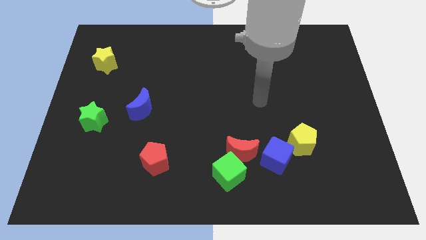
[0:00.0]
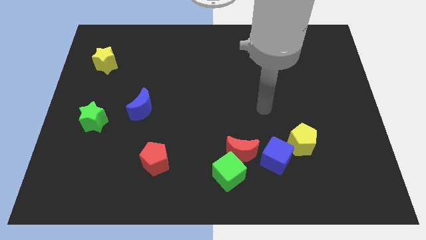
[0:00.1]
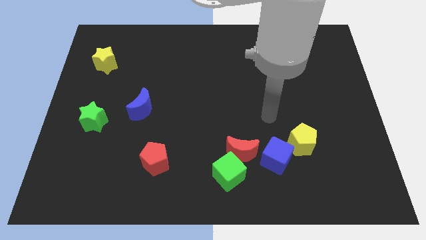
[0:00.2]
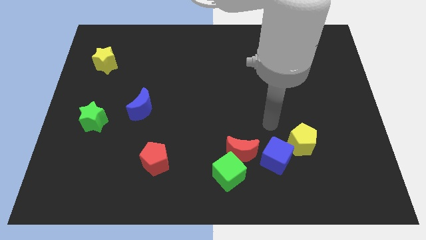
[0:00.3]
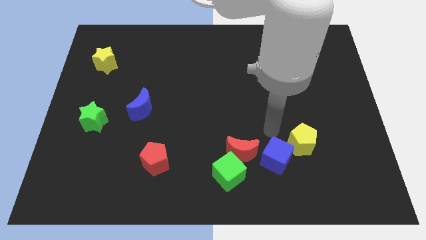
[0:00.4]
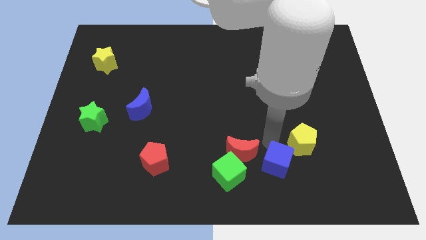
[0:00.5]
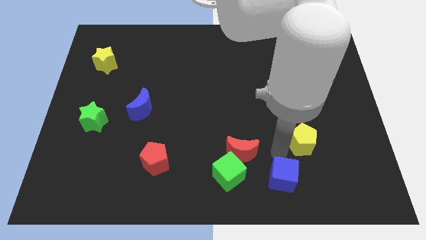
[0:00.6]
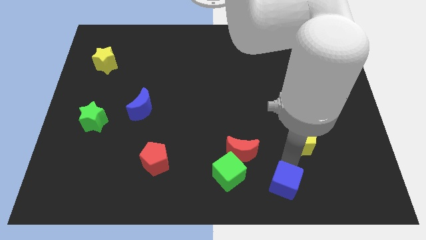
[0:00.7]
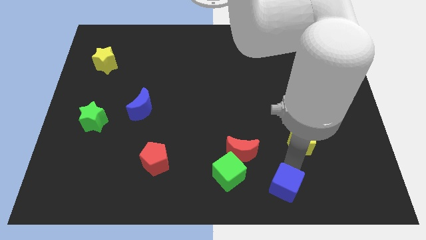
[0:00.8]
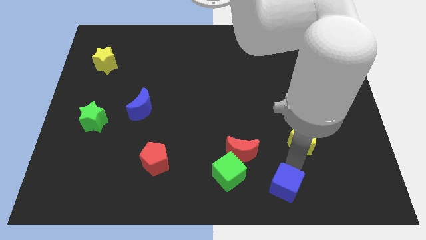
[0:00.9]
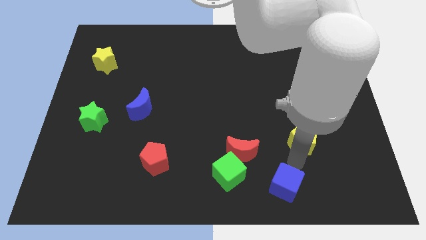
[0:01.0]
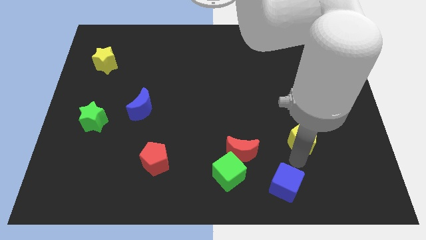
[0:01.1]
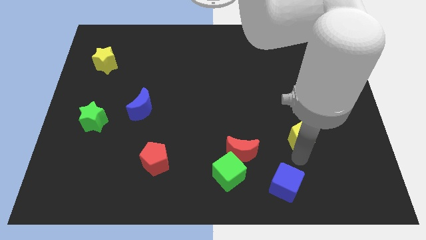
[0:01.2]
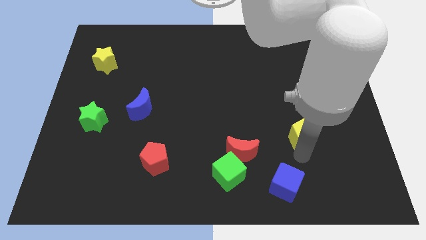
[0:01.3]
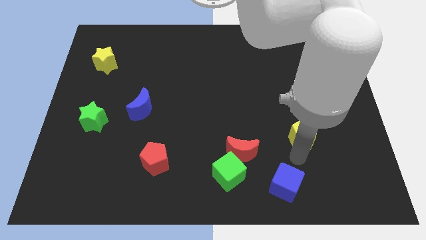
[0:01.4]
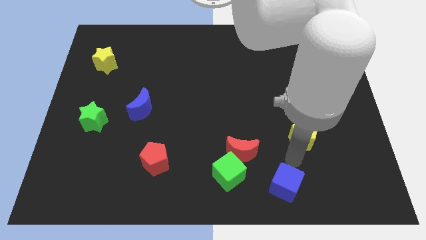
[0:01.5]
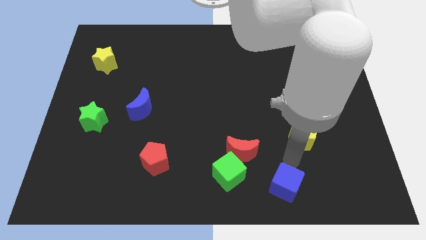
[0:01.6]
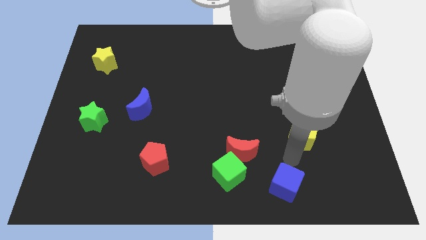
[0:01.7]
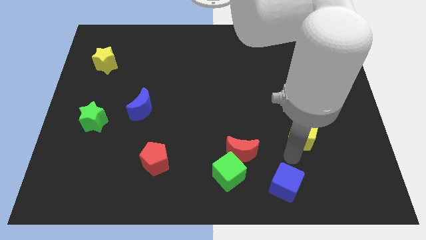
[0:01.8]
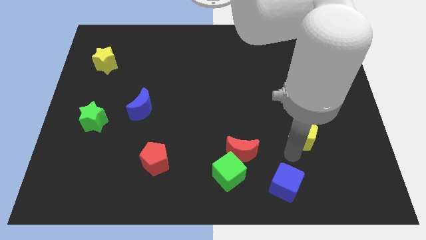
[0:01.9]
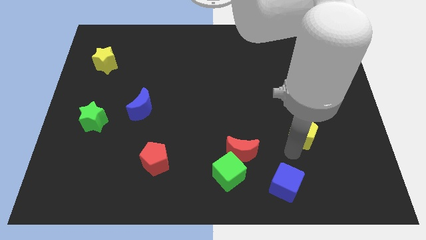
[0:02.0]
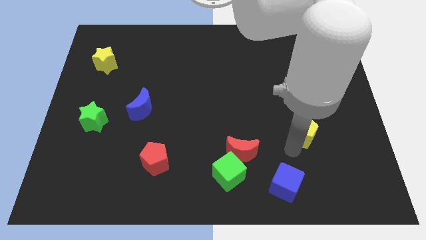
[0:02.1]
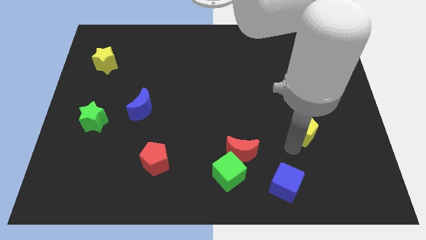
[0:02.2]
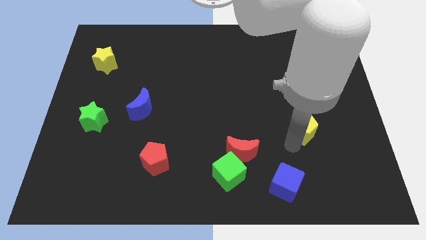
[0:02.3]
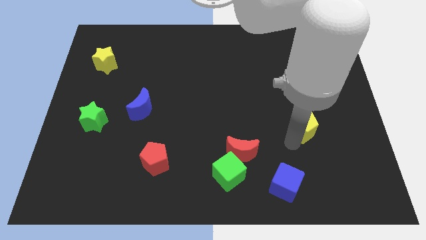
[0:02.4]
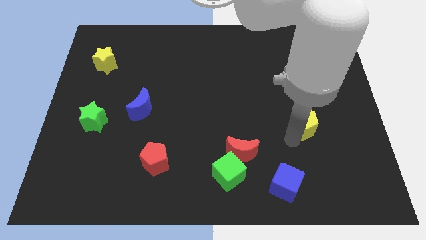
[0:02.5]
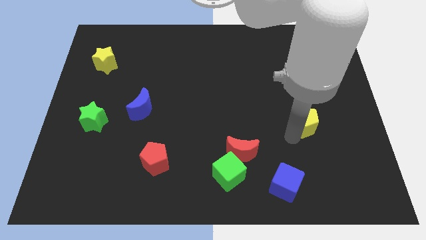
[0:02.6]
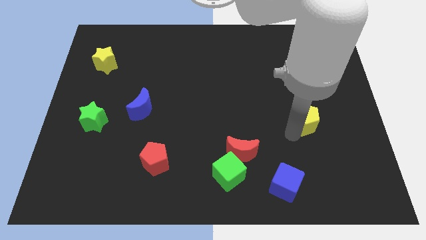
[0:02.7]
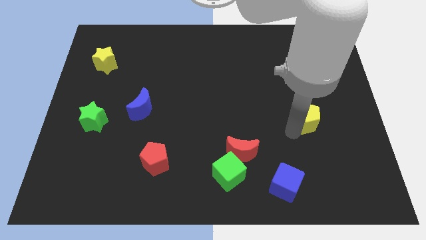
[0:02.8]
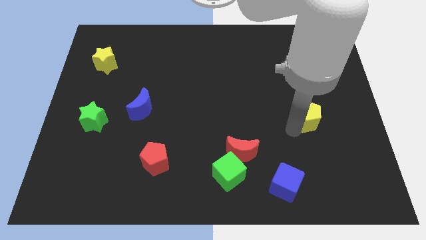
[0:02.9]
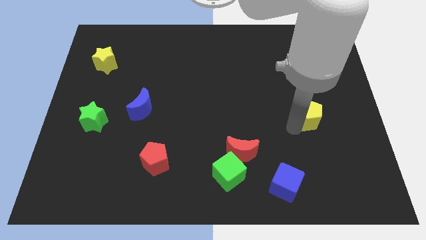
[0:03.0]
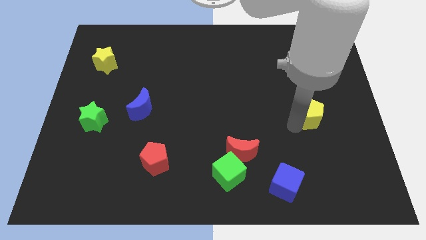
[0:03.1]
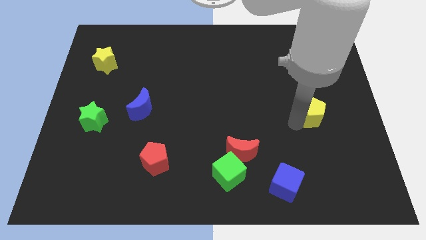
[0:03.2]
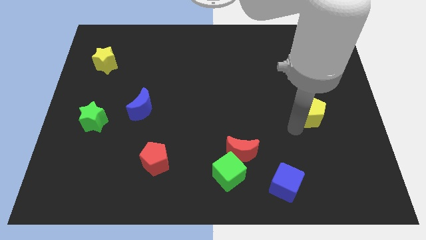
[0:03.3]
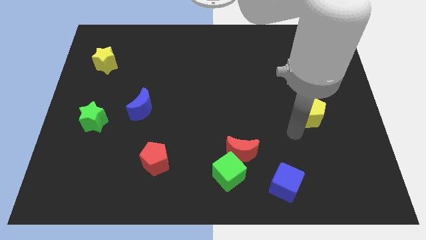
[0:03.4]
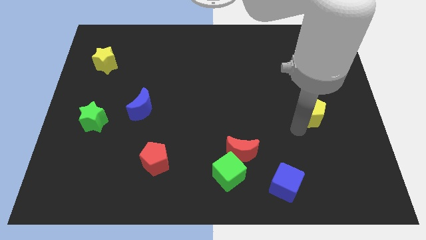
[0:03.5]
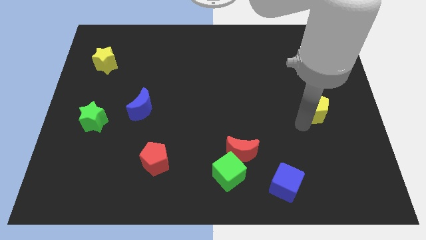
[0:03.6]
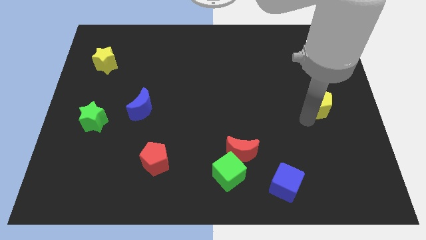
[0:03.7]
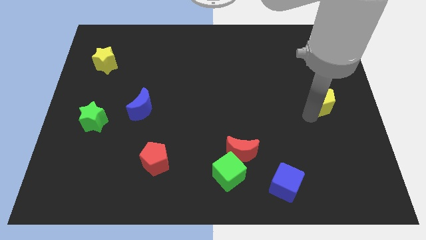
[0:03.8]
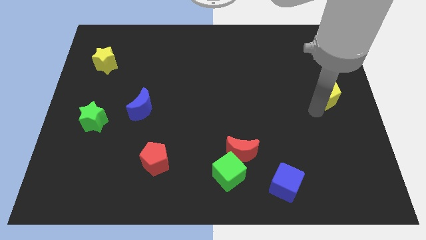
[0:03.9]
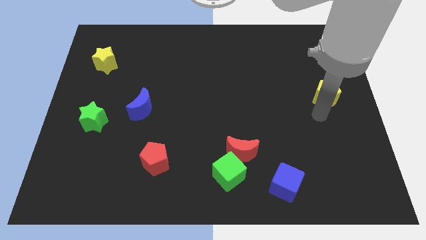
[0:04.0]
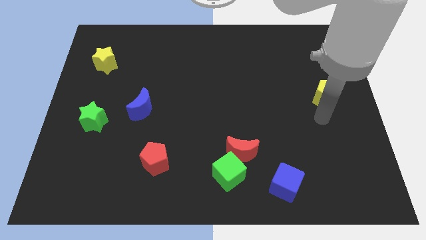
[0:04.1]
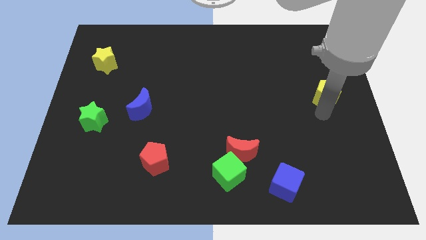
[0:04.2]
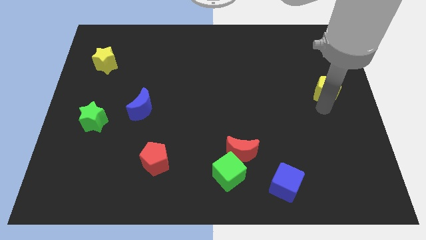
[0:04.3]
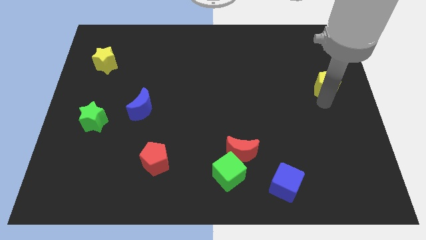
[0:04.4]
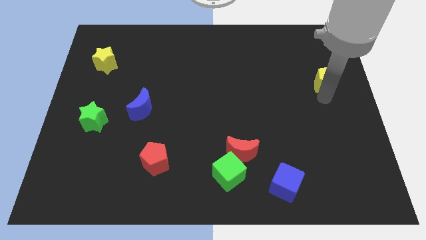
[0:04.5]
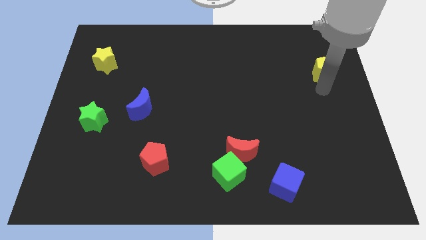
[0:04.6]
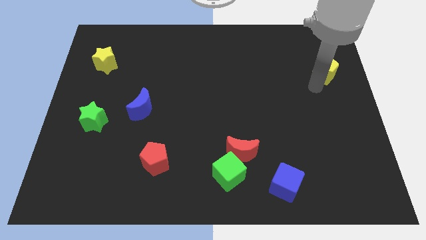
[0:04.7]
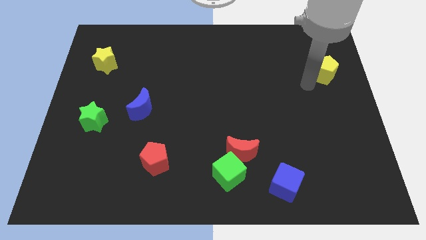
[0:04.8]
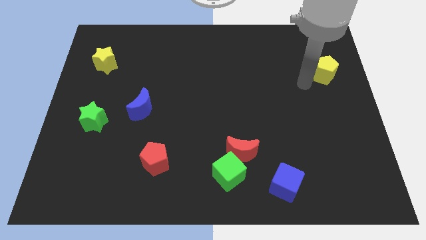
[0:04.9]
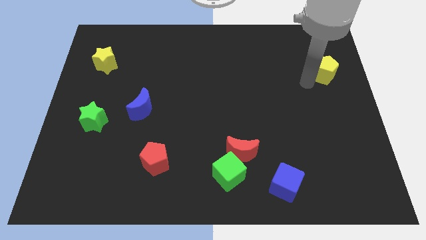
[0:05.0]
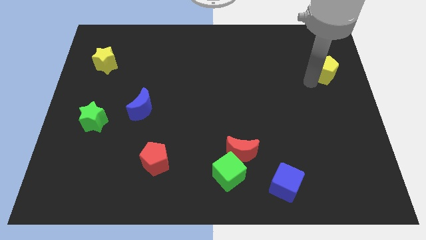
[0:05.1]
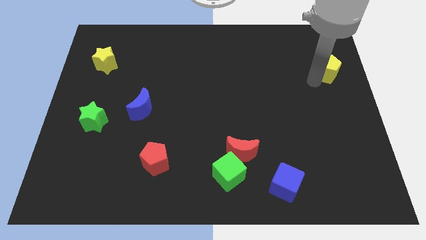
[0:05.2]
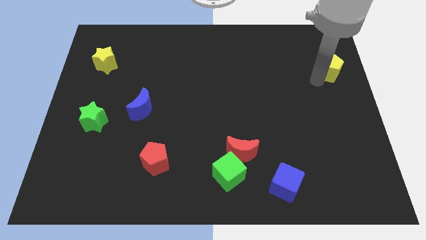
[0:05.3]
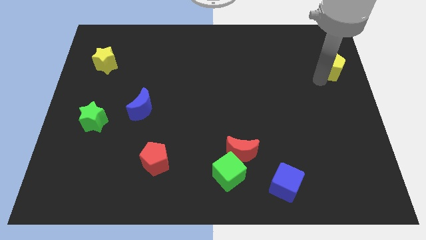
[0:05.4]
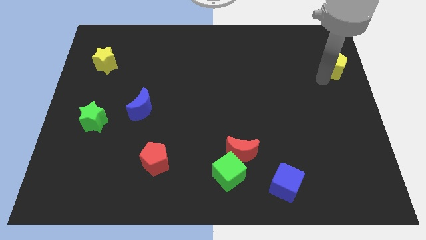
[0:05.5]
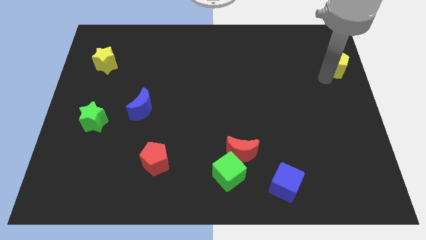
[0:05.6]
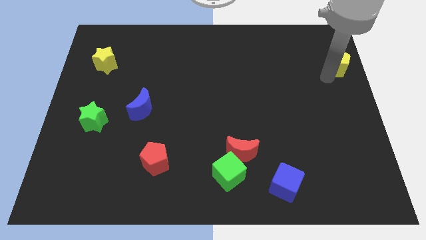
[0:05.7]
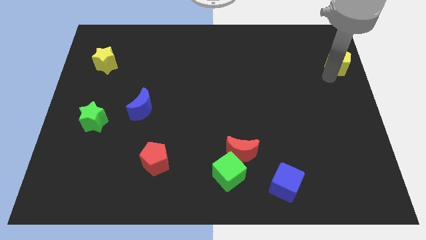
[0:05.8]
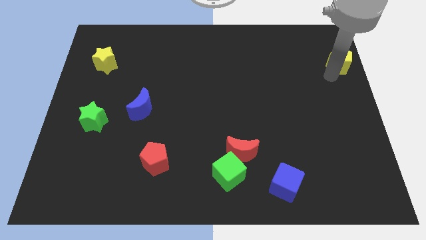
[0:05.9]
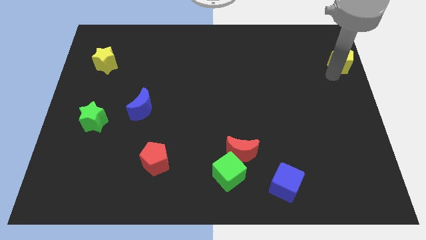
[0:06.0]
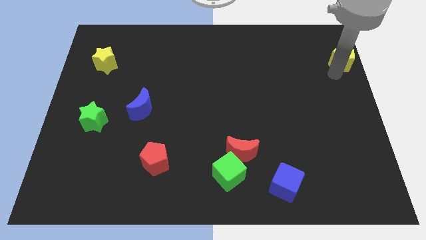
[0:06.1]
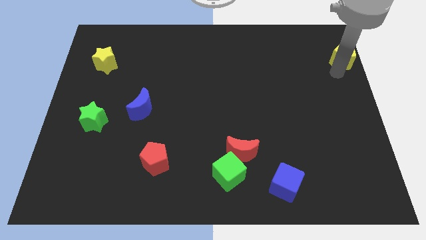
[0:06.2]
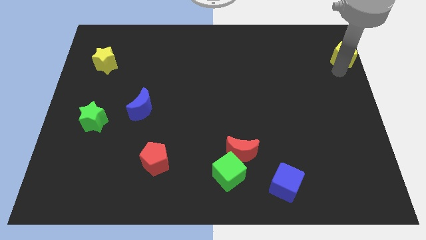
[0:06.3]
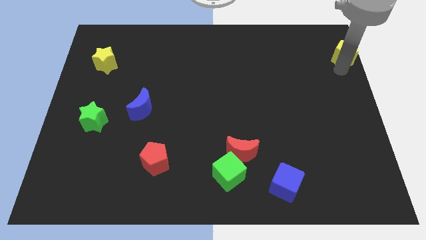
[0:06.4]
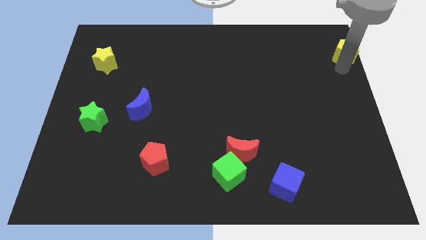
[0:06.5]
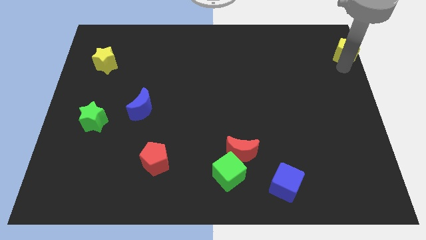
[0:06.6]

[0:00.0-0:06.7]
put the yellow pentagon to the top right
